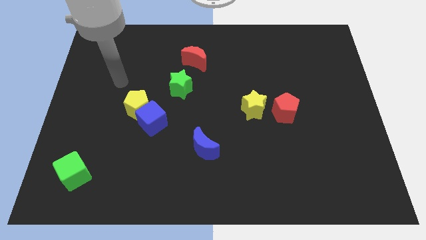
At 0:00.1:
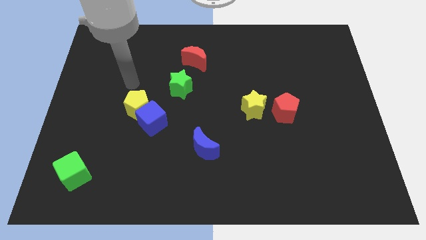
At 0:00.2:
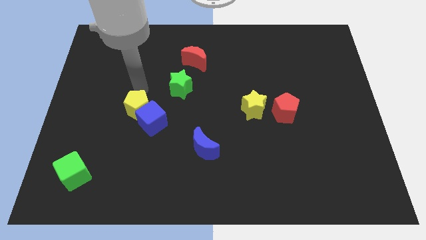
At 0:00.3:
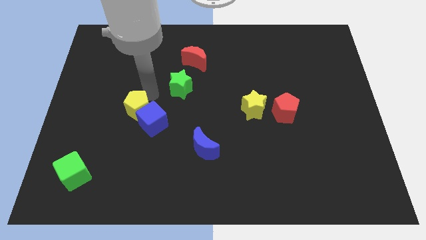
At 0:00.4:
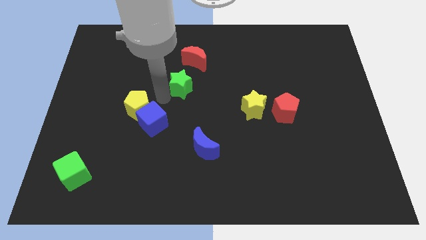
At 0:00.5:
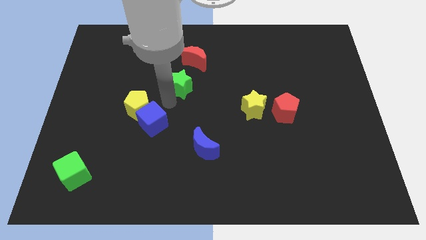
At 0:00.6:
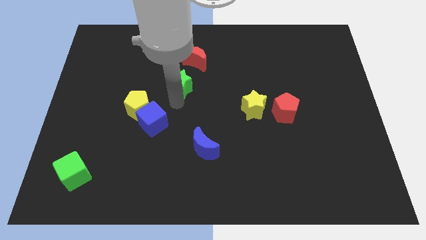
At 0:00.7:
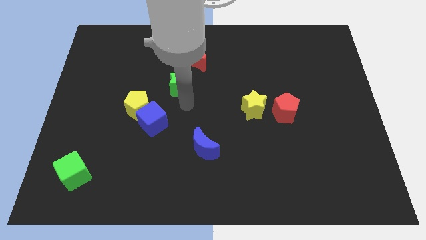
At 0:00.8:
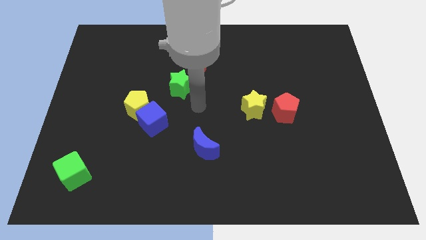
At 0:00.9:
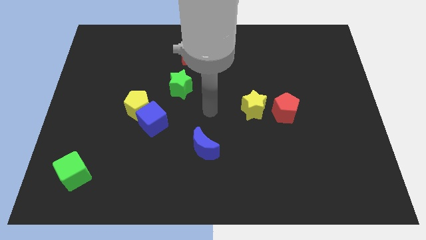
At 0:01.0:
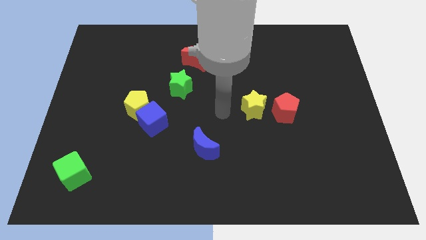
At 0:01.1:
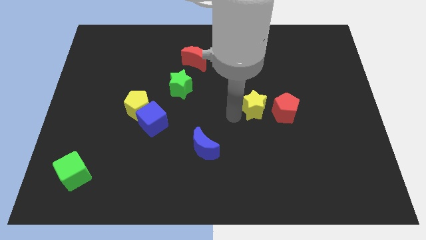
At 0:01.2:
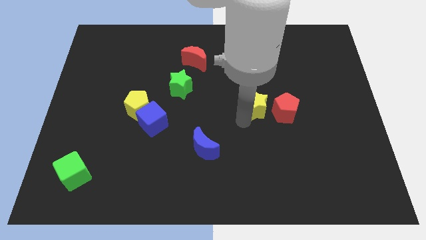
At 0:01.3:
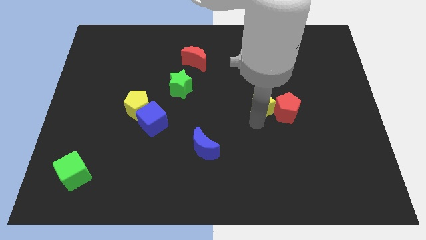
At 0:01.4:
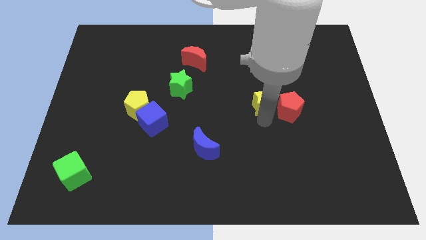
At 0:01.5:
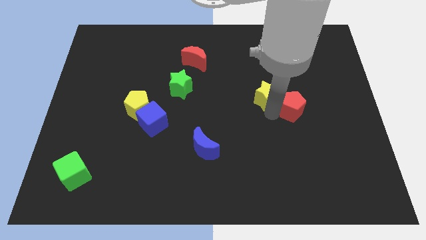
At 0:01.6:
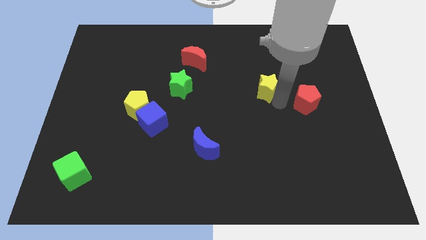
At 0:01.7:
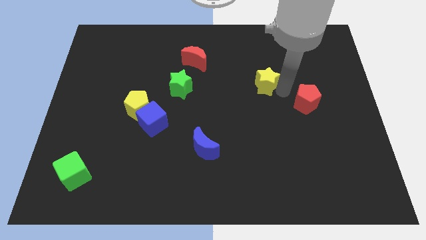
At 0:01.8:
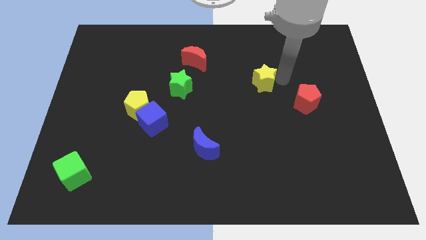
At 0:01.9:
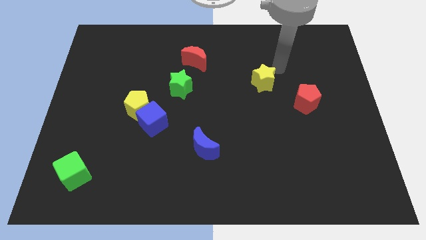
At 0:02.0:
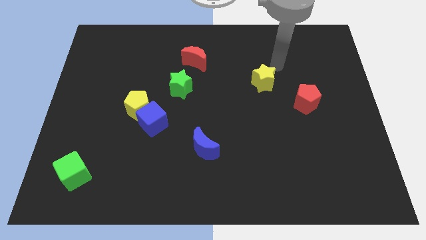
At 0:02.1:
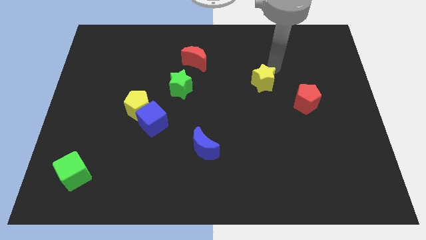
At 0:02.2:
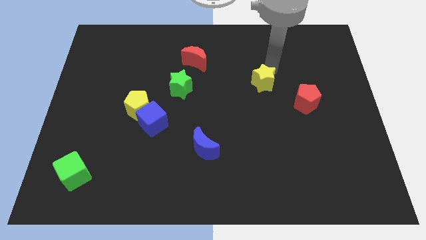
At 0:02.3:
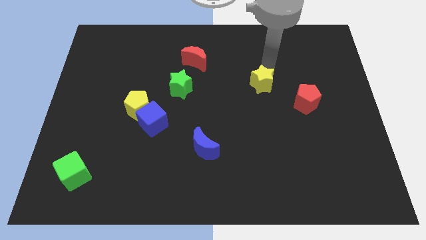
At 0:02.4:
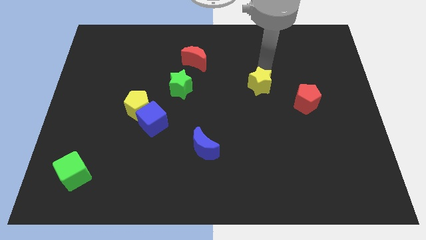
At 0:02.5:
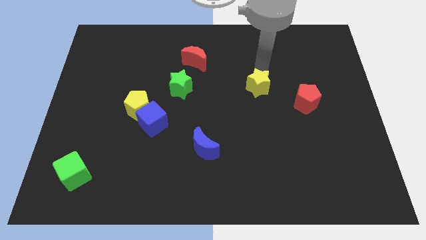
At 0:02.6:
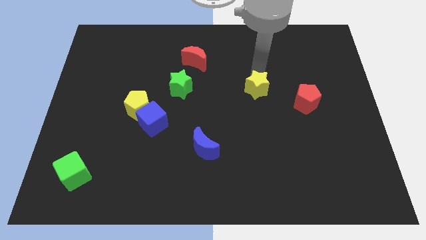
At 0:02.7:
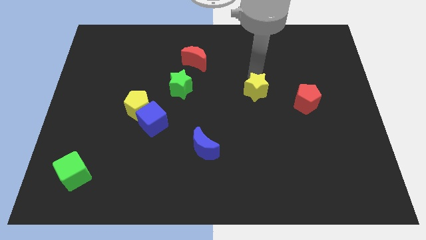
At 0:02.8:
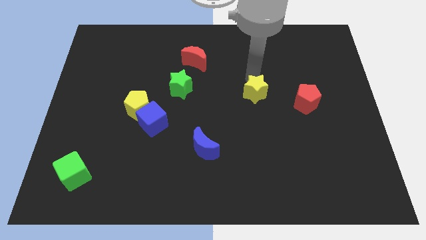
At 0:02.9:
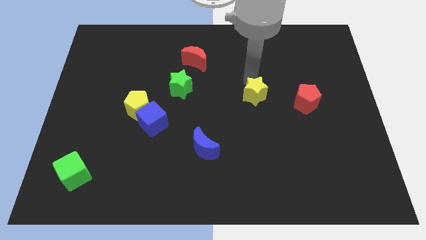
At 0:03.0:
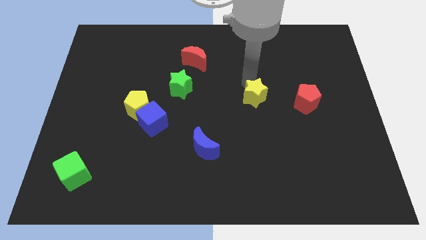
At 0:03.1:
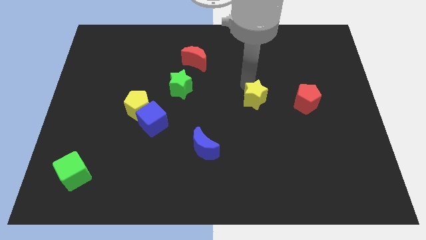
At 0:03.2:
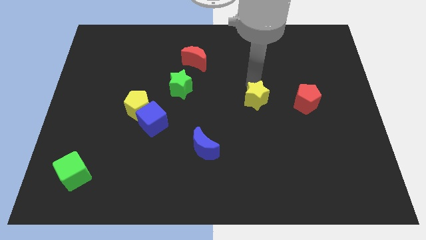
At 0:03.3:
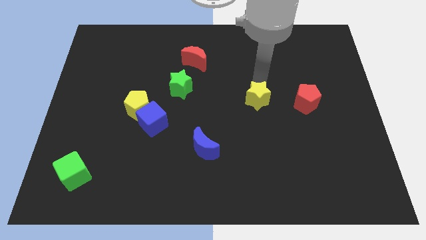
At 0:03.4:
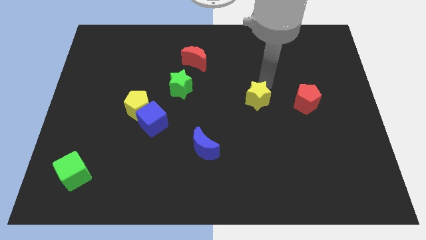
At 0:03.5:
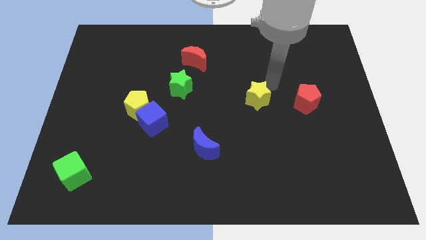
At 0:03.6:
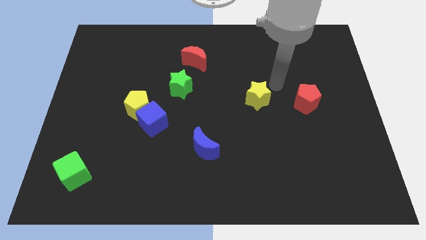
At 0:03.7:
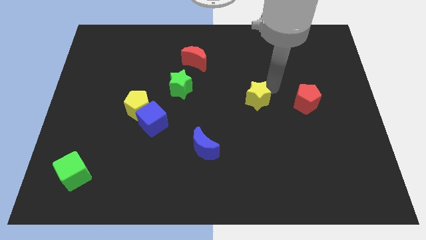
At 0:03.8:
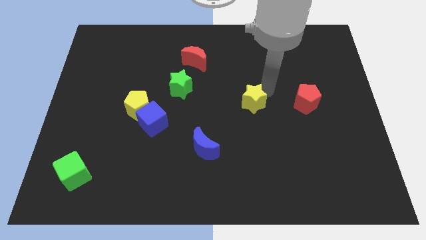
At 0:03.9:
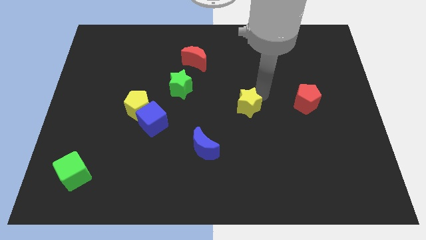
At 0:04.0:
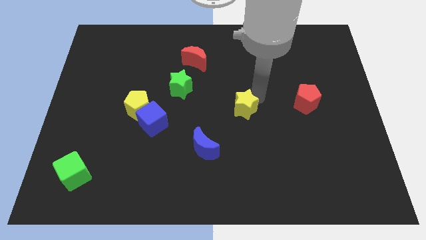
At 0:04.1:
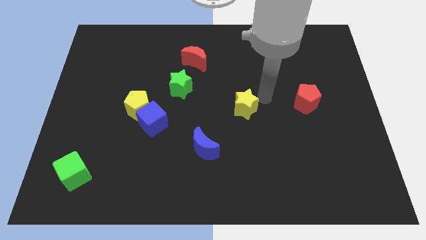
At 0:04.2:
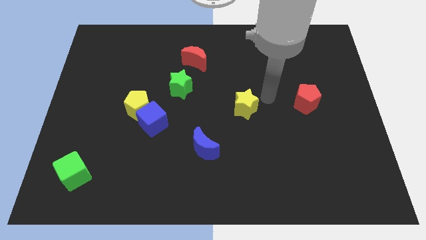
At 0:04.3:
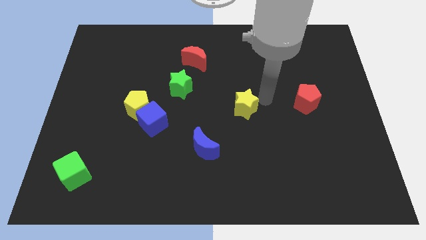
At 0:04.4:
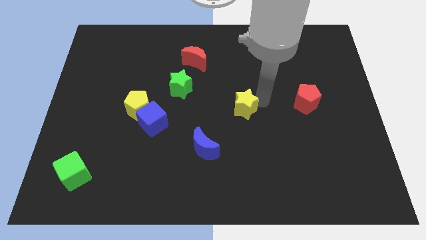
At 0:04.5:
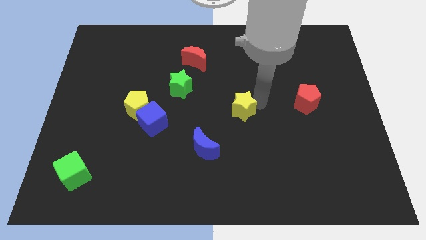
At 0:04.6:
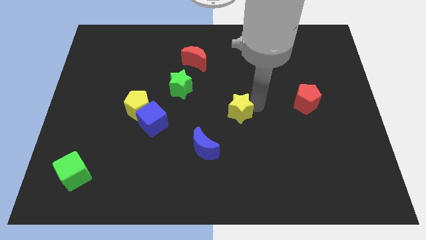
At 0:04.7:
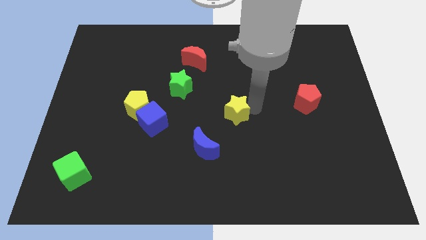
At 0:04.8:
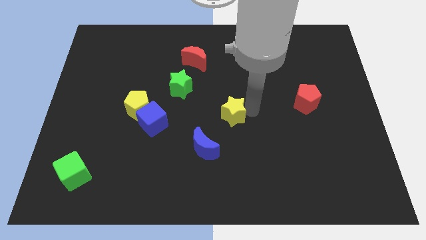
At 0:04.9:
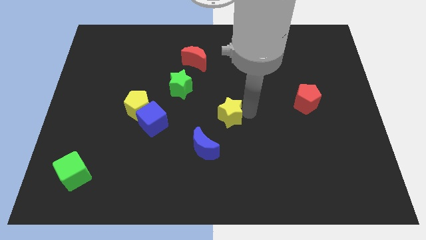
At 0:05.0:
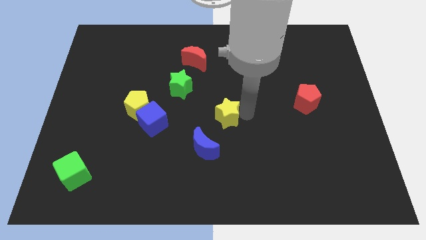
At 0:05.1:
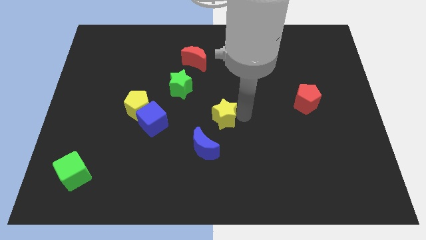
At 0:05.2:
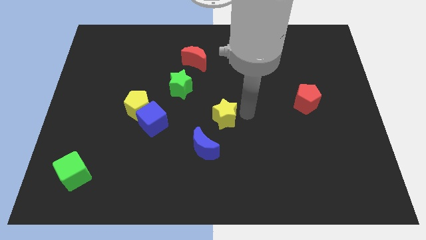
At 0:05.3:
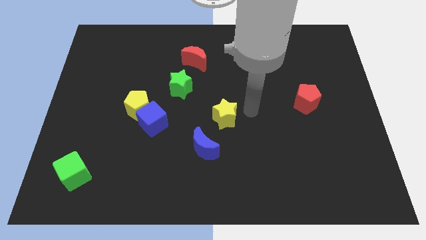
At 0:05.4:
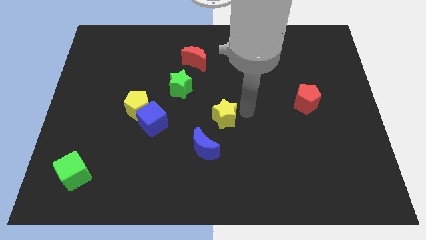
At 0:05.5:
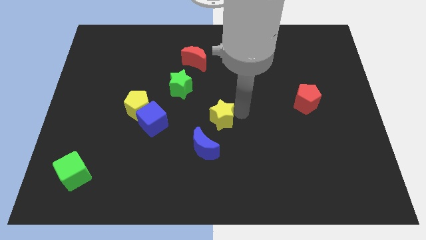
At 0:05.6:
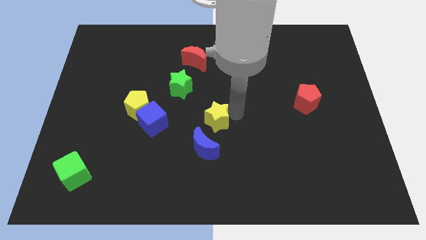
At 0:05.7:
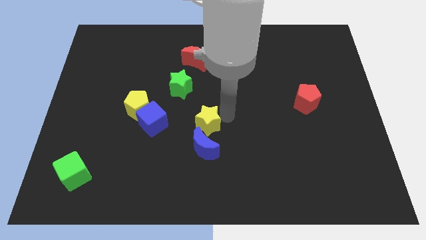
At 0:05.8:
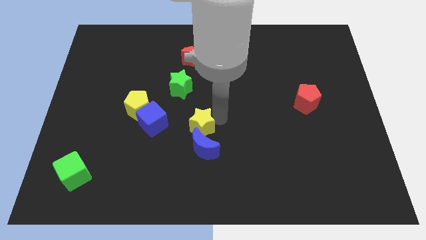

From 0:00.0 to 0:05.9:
move the yellow star to the top left side of the blue moon

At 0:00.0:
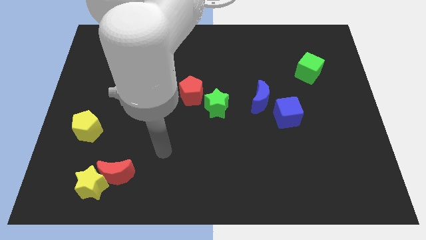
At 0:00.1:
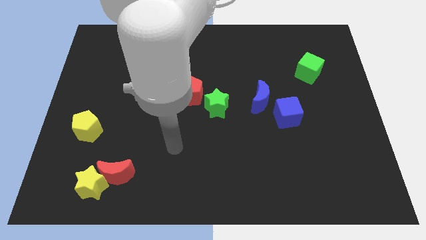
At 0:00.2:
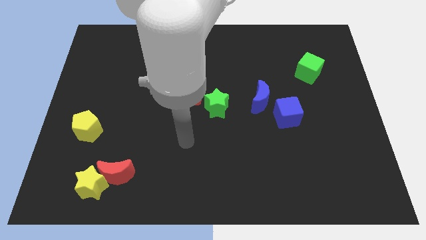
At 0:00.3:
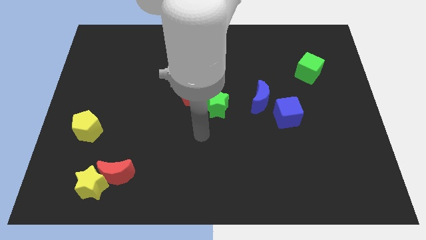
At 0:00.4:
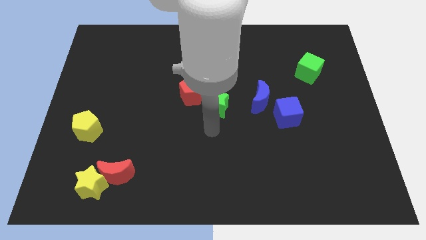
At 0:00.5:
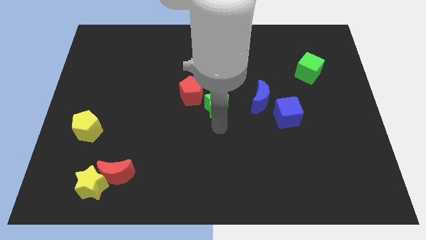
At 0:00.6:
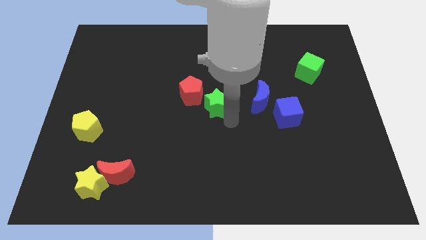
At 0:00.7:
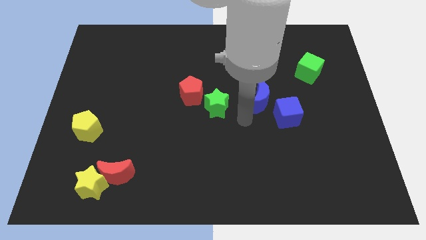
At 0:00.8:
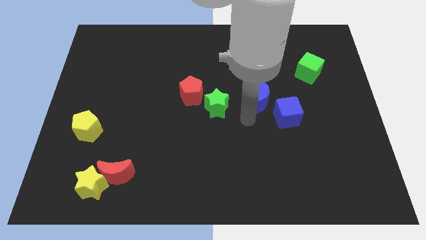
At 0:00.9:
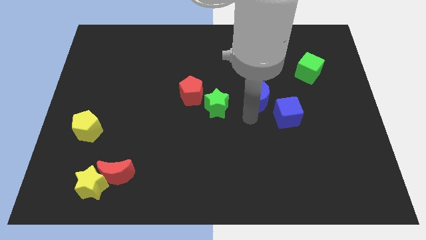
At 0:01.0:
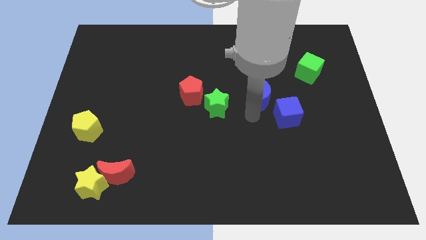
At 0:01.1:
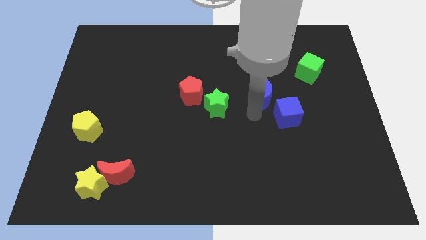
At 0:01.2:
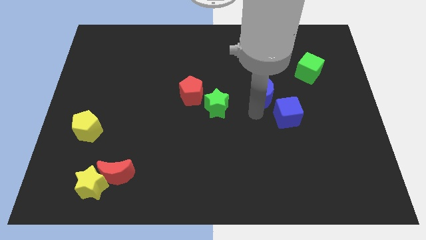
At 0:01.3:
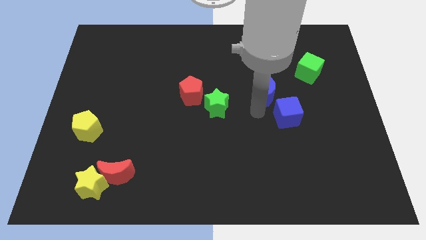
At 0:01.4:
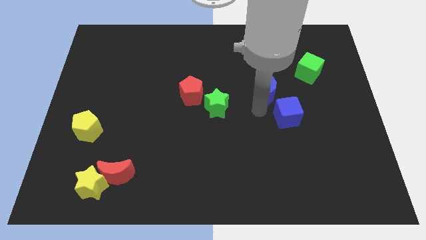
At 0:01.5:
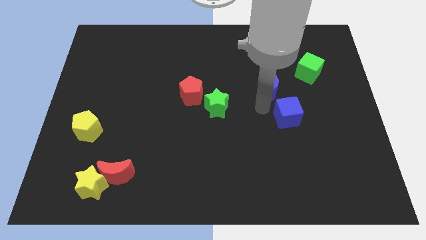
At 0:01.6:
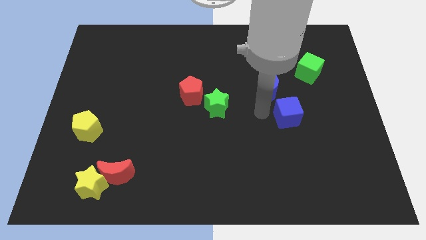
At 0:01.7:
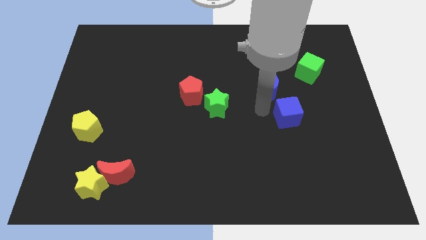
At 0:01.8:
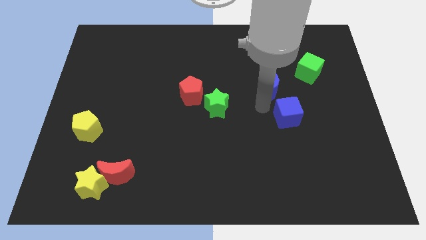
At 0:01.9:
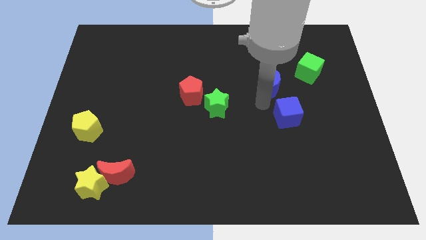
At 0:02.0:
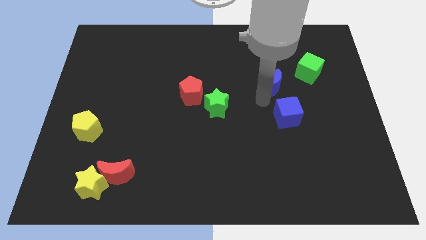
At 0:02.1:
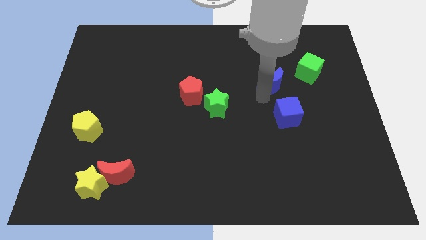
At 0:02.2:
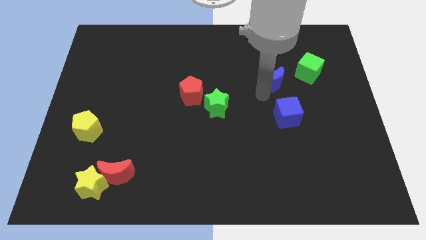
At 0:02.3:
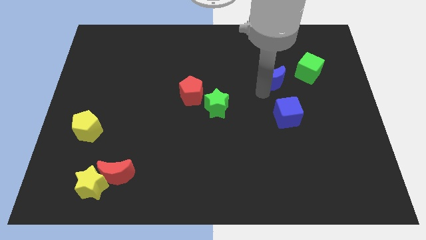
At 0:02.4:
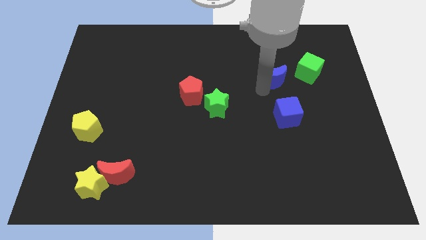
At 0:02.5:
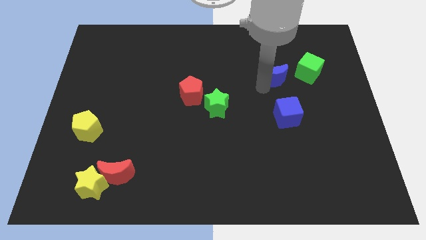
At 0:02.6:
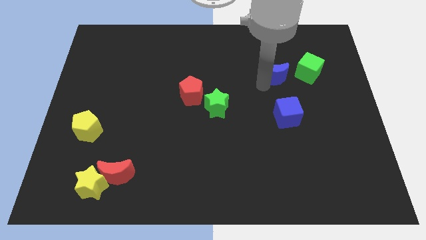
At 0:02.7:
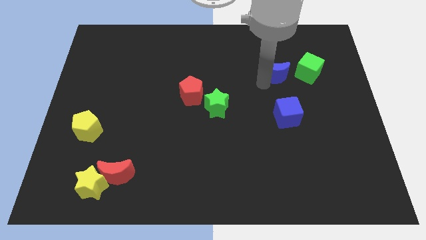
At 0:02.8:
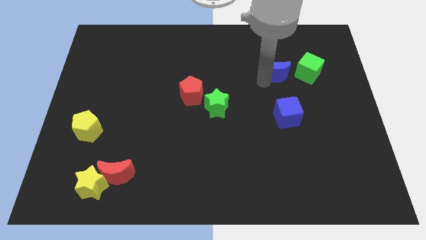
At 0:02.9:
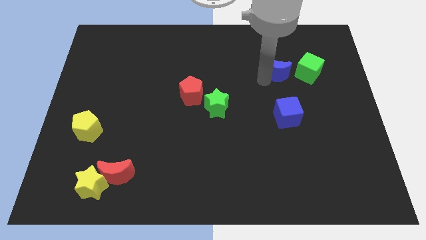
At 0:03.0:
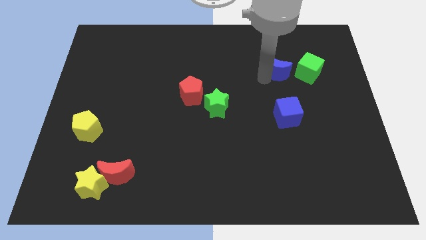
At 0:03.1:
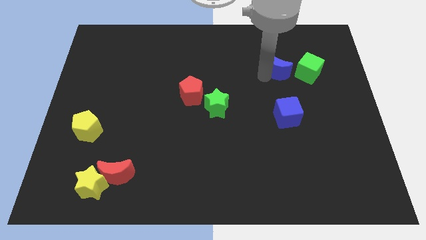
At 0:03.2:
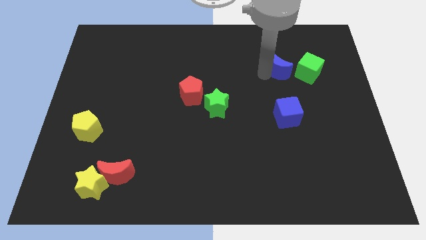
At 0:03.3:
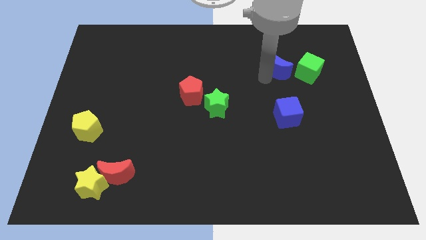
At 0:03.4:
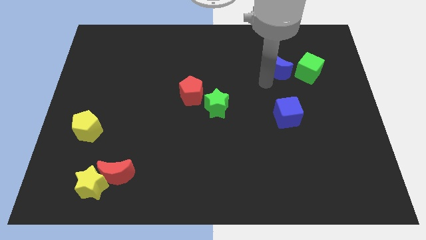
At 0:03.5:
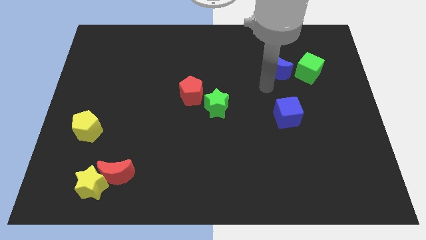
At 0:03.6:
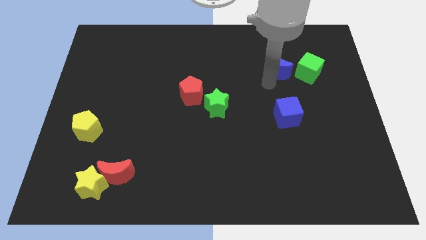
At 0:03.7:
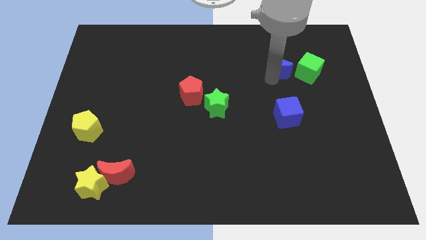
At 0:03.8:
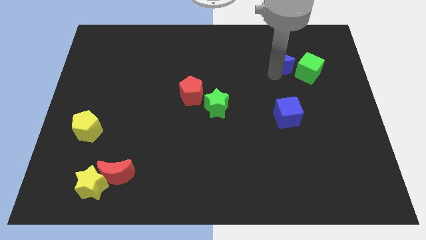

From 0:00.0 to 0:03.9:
put the blue moon to the top left of the green cube
